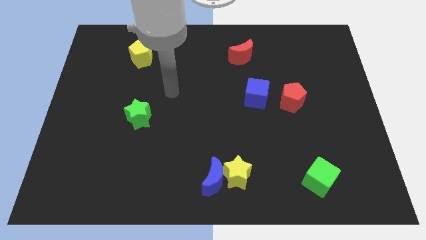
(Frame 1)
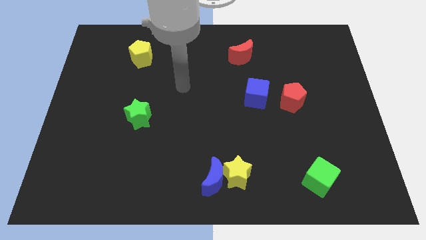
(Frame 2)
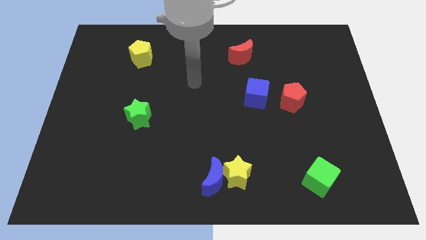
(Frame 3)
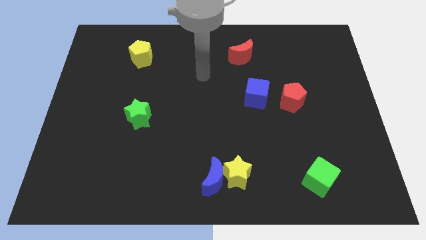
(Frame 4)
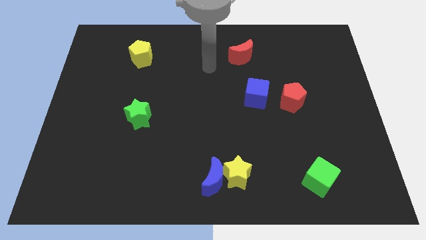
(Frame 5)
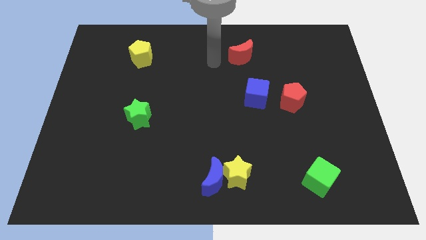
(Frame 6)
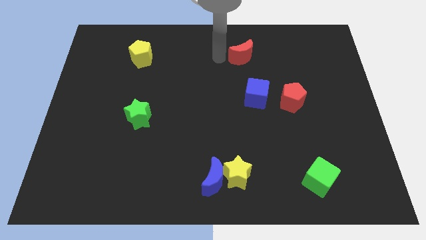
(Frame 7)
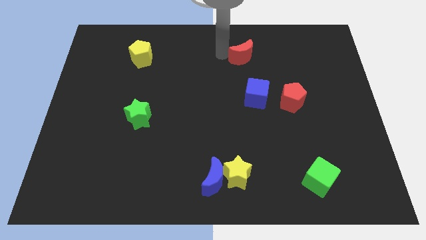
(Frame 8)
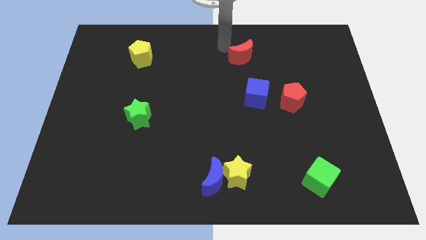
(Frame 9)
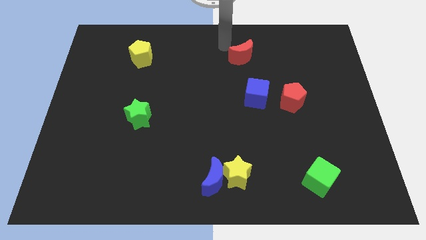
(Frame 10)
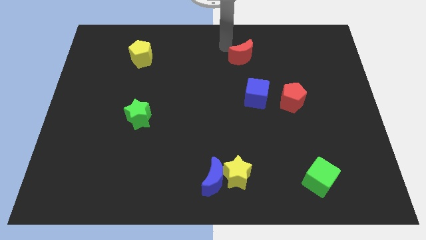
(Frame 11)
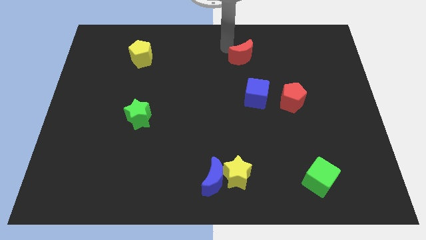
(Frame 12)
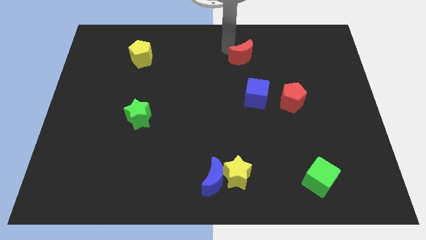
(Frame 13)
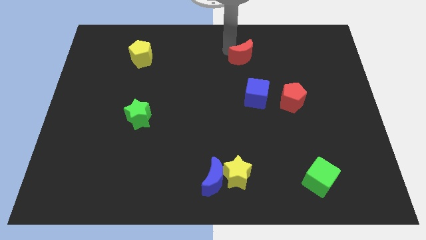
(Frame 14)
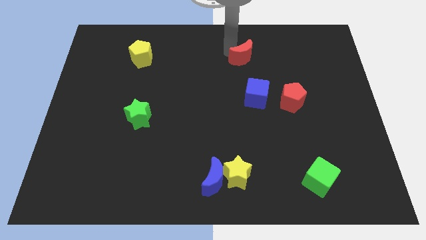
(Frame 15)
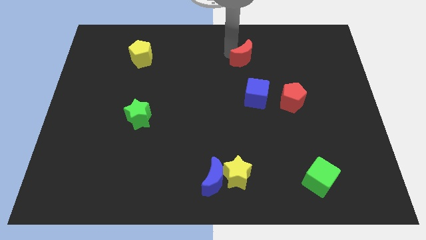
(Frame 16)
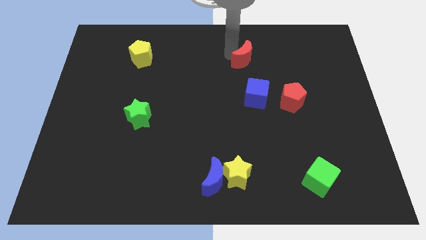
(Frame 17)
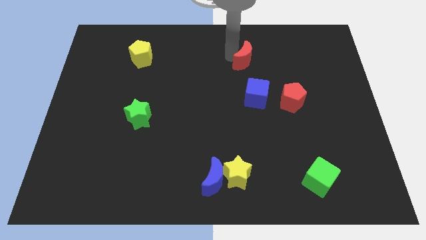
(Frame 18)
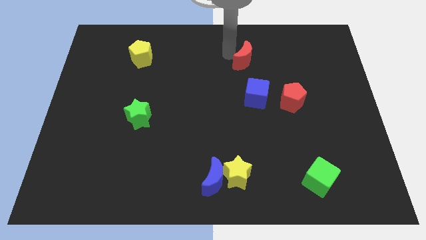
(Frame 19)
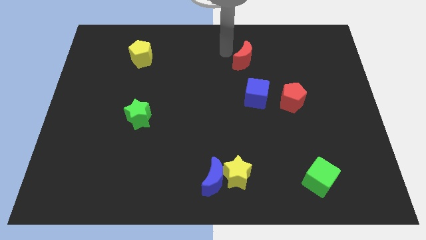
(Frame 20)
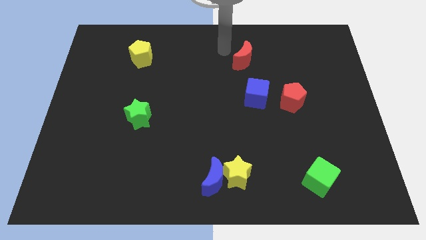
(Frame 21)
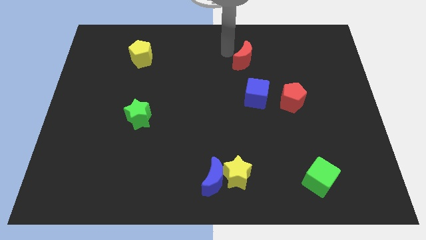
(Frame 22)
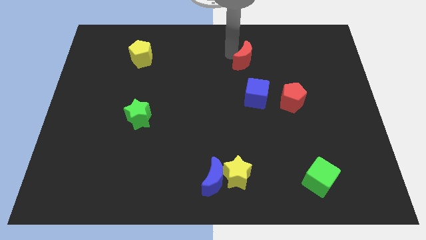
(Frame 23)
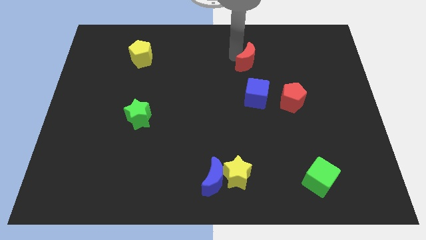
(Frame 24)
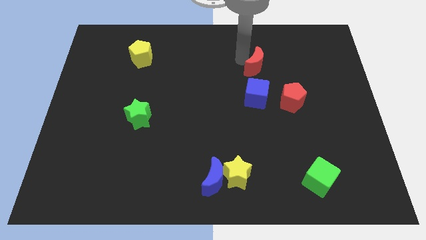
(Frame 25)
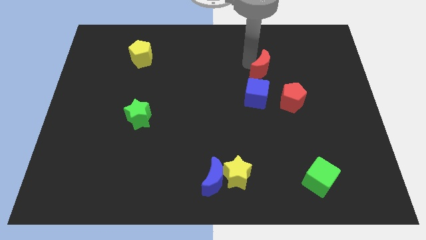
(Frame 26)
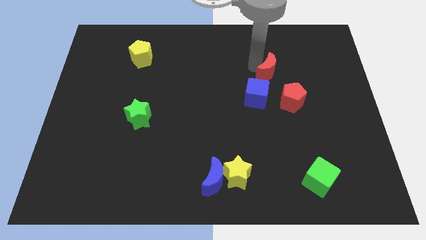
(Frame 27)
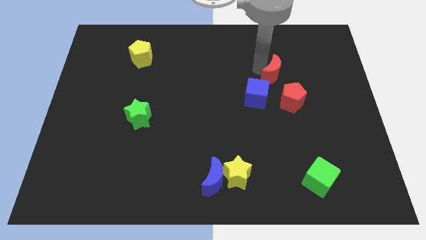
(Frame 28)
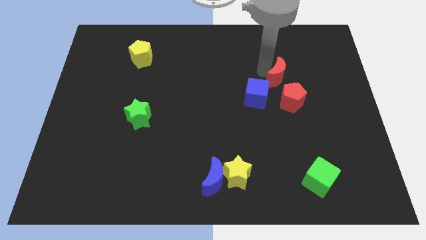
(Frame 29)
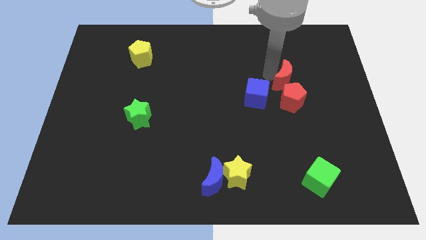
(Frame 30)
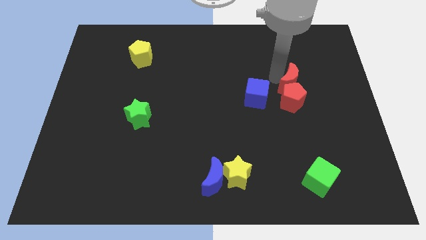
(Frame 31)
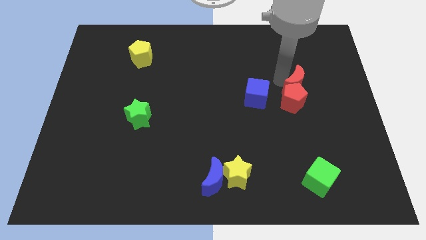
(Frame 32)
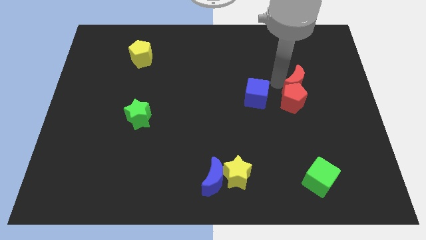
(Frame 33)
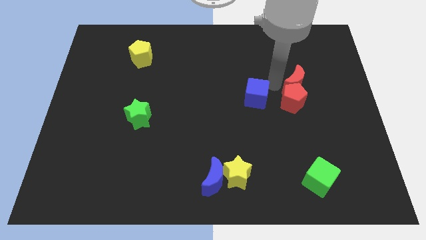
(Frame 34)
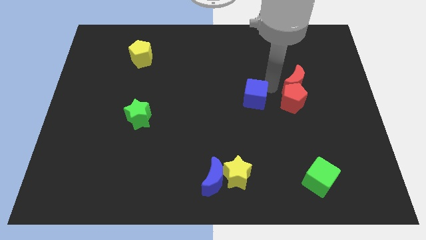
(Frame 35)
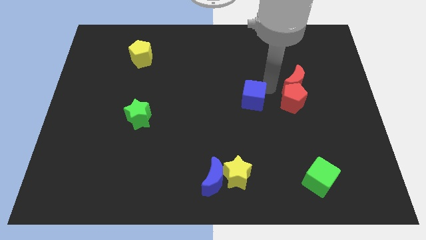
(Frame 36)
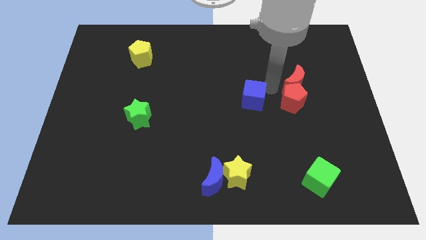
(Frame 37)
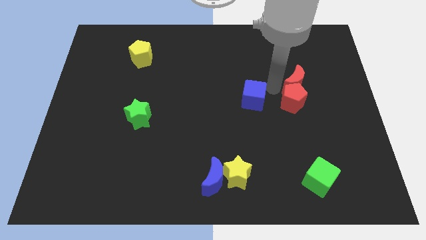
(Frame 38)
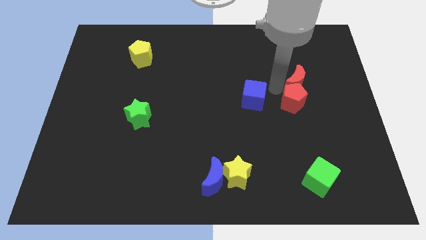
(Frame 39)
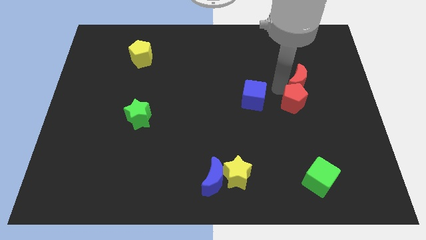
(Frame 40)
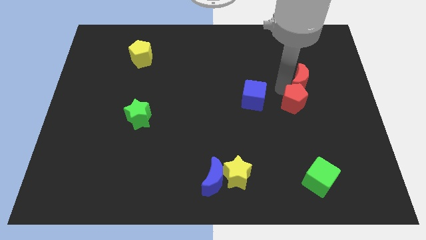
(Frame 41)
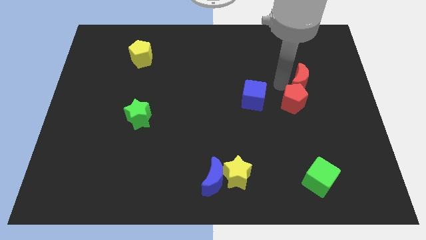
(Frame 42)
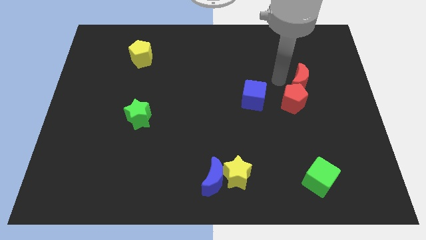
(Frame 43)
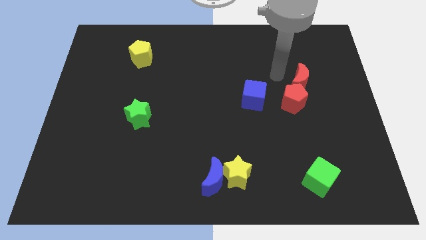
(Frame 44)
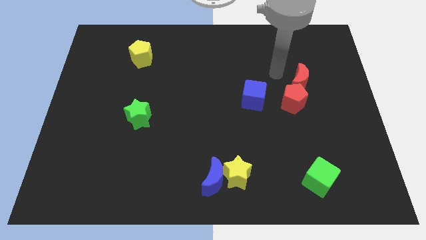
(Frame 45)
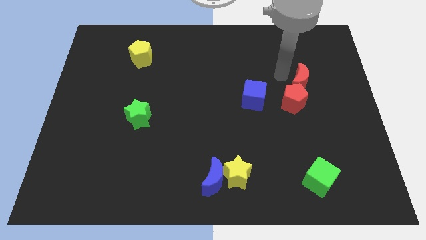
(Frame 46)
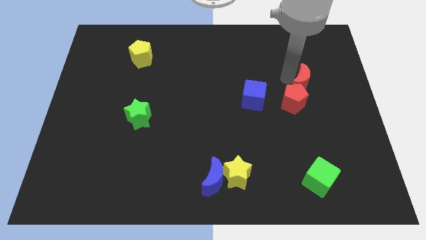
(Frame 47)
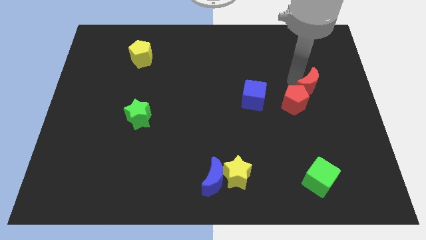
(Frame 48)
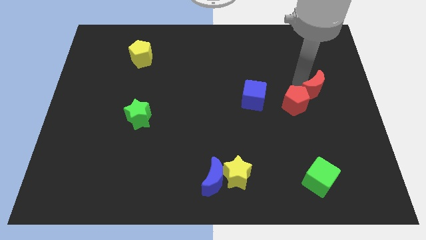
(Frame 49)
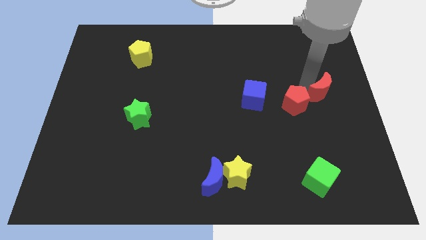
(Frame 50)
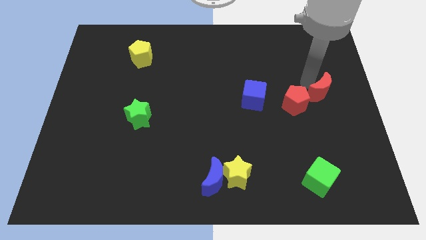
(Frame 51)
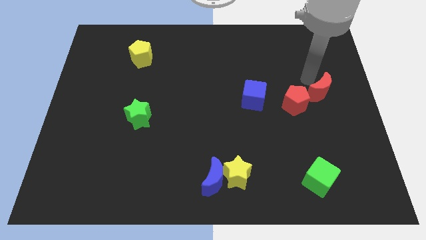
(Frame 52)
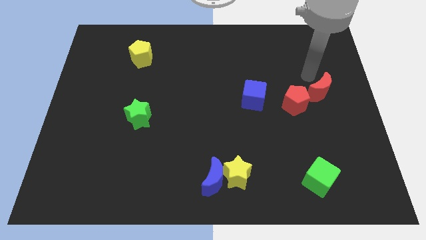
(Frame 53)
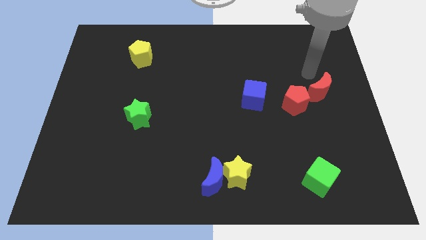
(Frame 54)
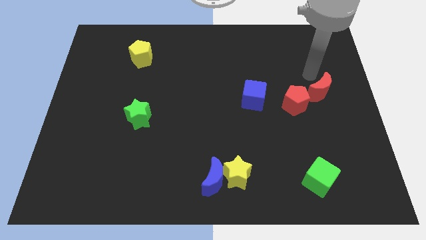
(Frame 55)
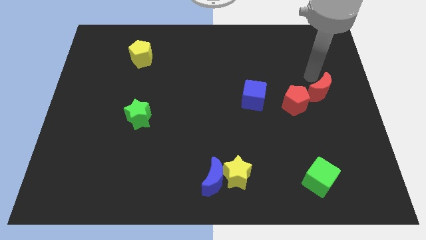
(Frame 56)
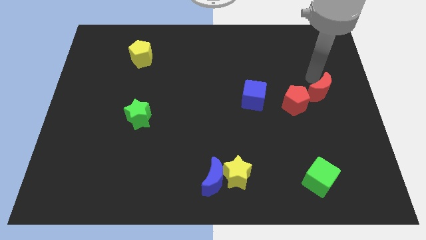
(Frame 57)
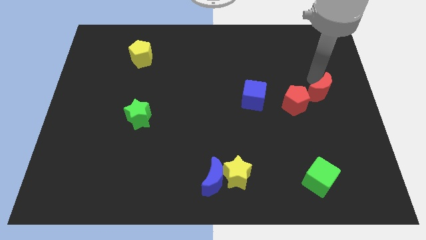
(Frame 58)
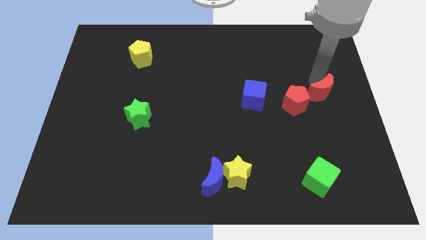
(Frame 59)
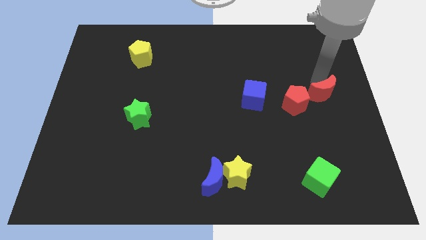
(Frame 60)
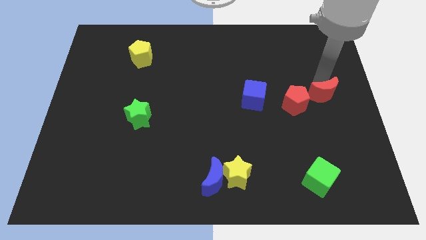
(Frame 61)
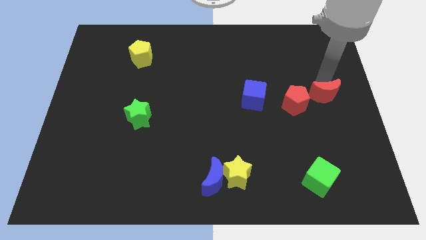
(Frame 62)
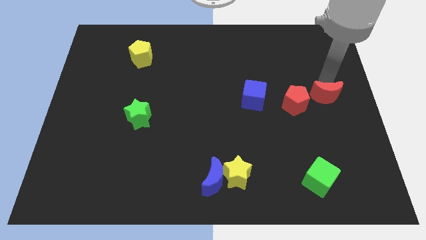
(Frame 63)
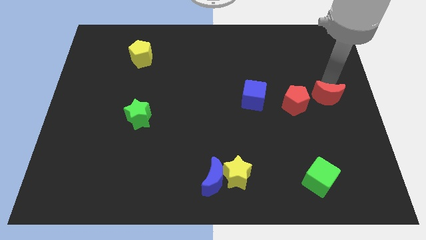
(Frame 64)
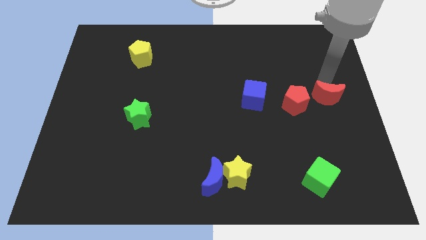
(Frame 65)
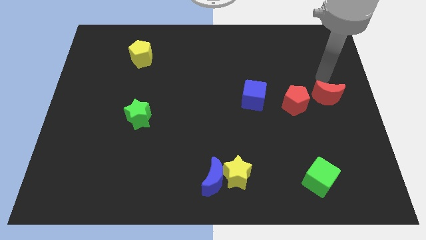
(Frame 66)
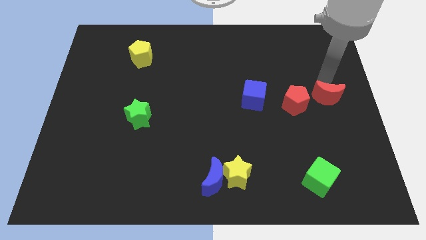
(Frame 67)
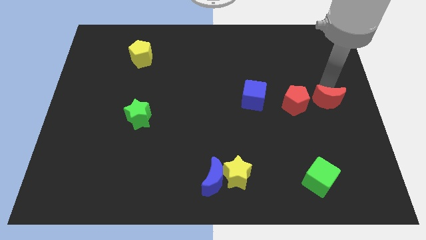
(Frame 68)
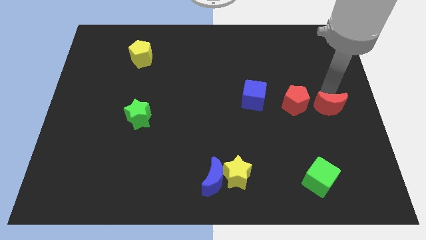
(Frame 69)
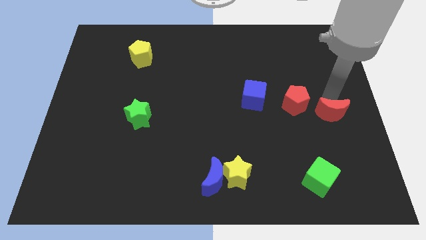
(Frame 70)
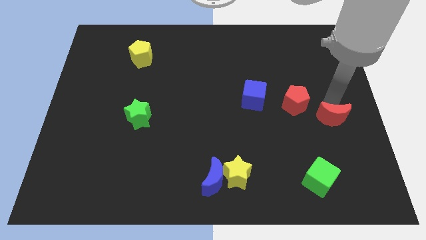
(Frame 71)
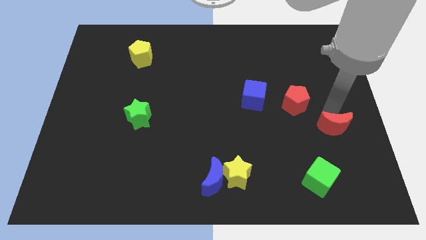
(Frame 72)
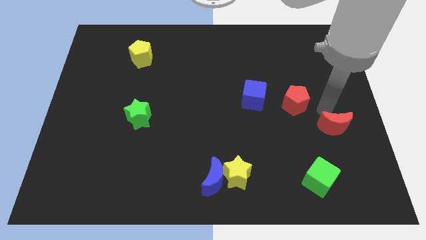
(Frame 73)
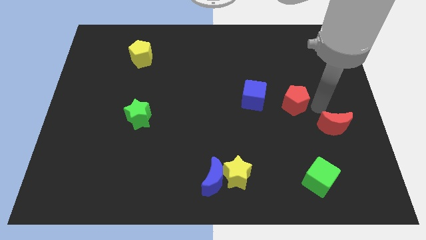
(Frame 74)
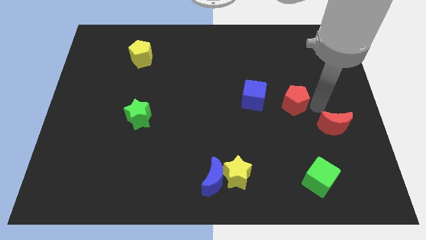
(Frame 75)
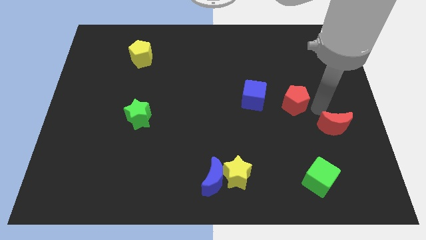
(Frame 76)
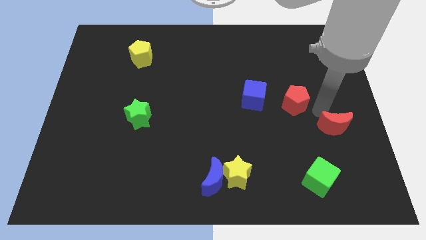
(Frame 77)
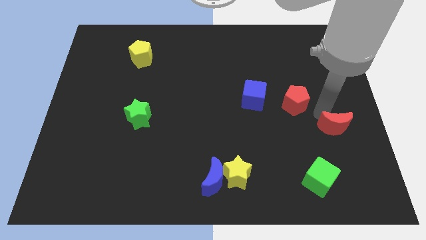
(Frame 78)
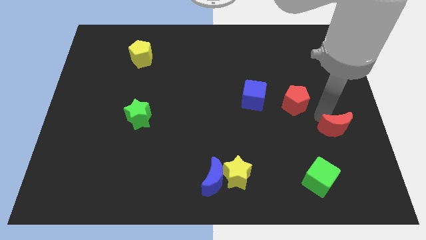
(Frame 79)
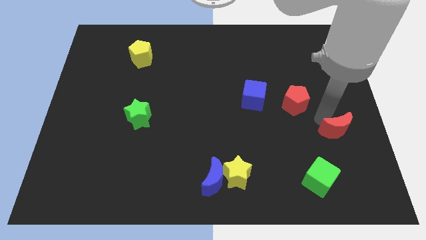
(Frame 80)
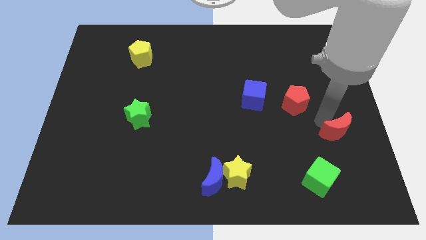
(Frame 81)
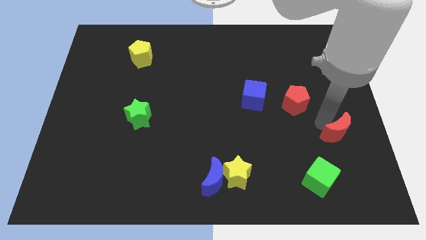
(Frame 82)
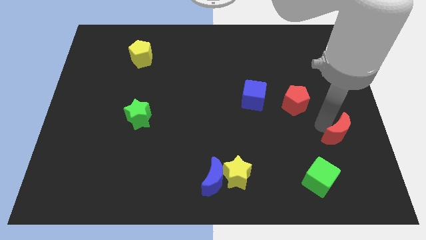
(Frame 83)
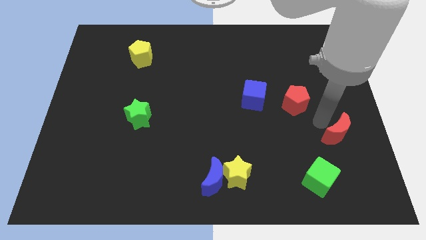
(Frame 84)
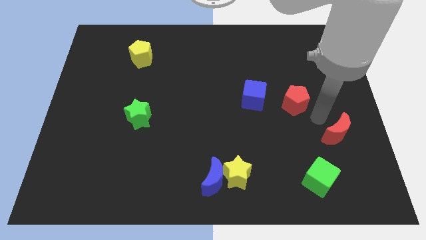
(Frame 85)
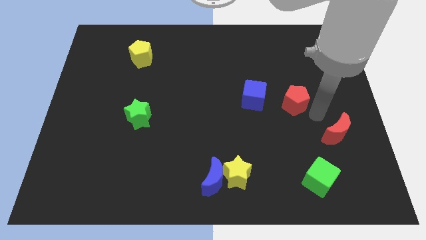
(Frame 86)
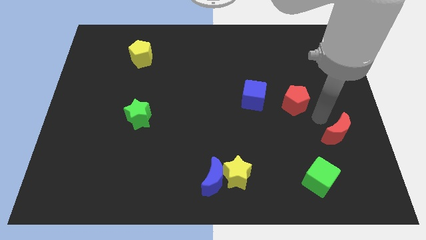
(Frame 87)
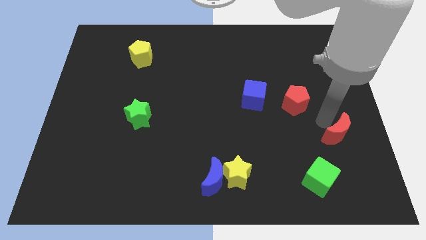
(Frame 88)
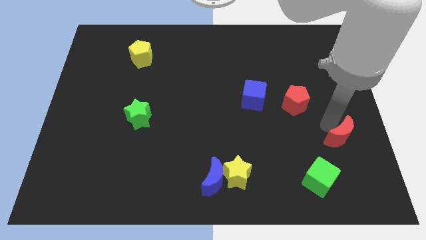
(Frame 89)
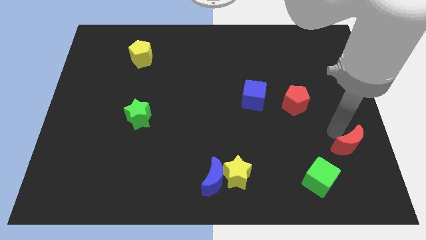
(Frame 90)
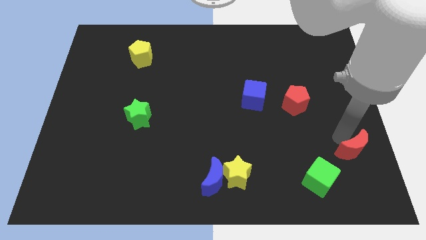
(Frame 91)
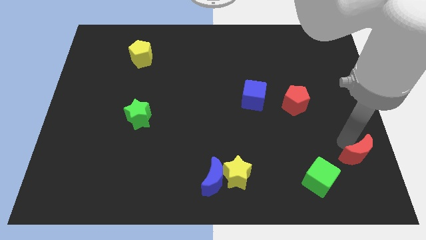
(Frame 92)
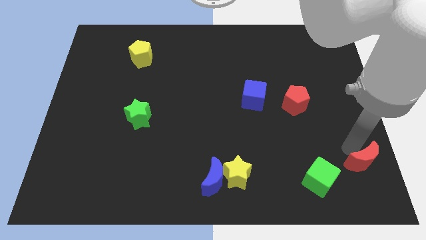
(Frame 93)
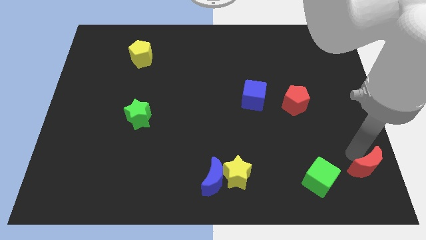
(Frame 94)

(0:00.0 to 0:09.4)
push the red moon to the bottom right
